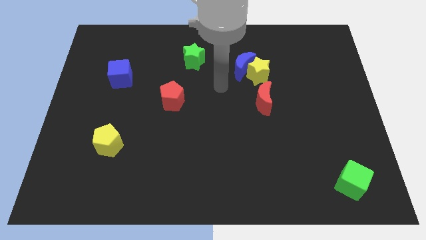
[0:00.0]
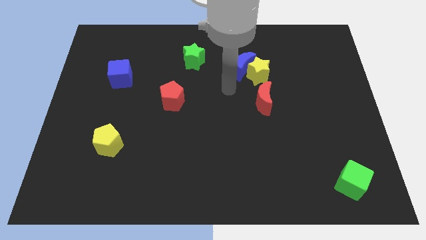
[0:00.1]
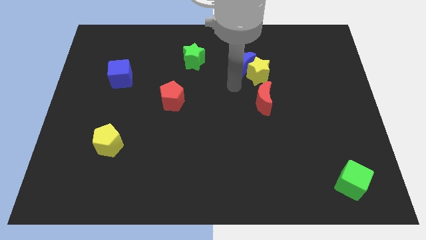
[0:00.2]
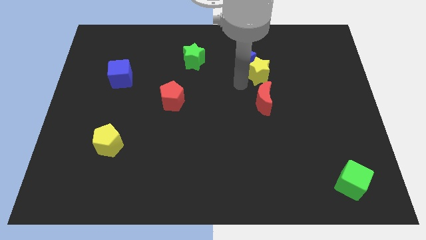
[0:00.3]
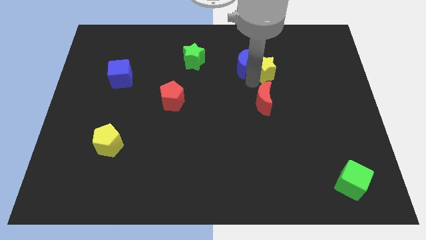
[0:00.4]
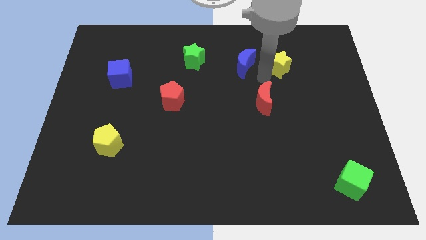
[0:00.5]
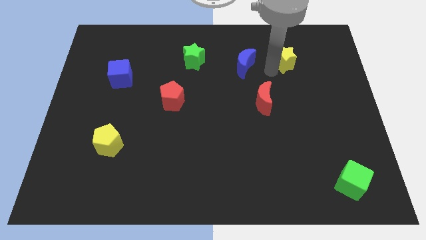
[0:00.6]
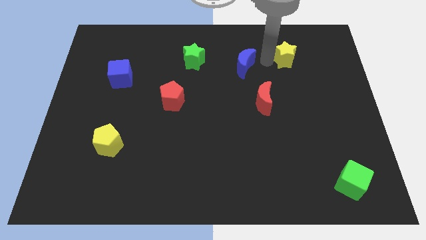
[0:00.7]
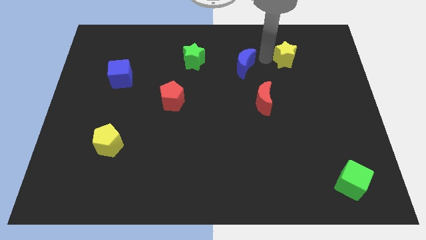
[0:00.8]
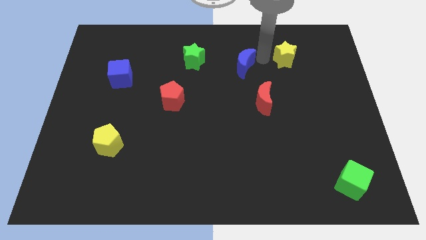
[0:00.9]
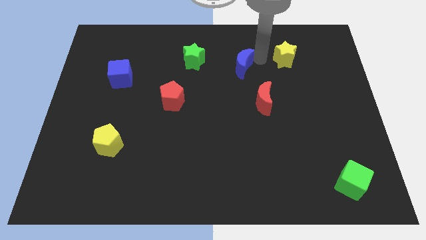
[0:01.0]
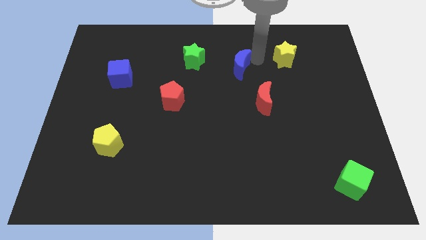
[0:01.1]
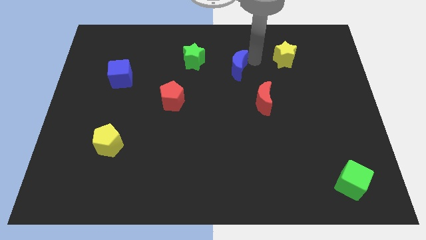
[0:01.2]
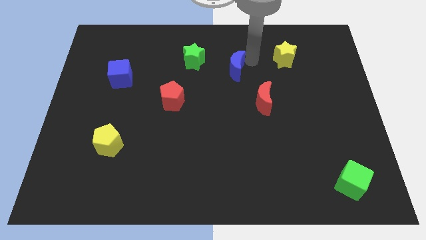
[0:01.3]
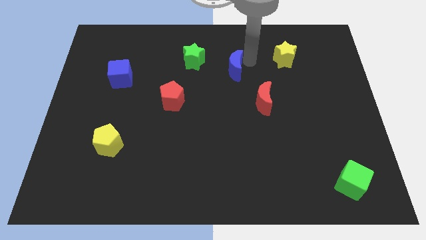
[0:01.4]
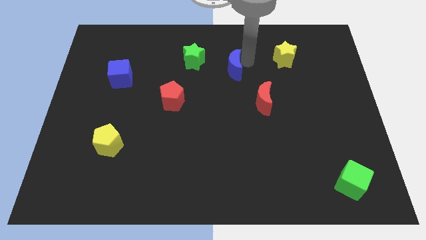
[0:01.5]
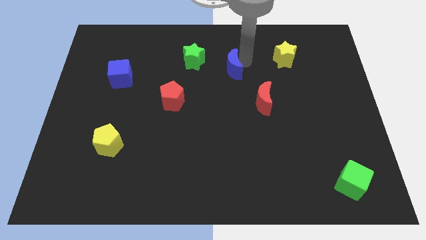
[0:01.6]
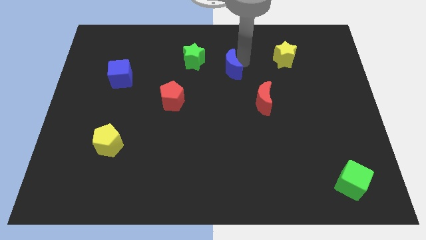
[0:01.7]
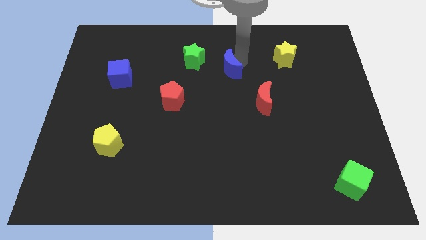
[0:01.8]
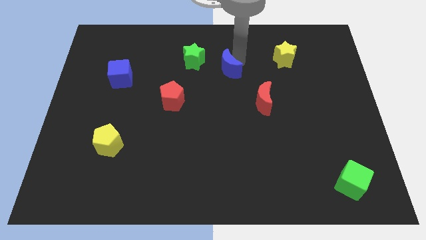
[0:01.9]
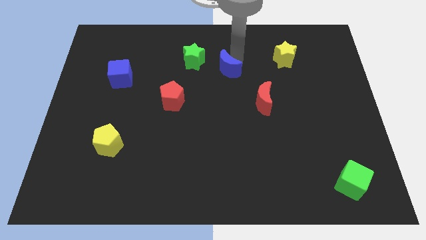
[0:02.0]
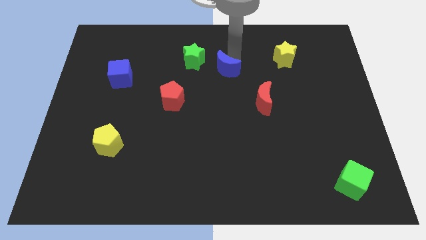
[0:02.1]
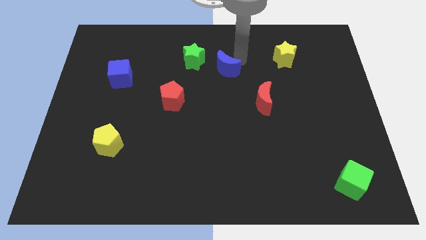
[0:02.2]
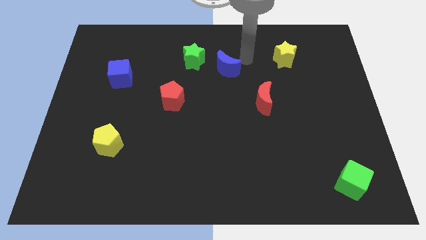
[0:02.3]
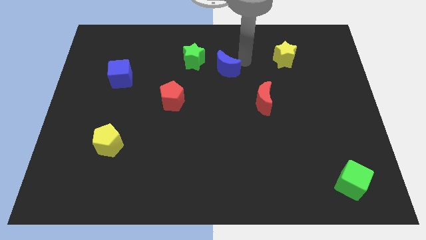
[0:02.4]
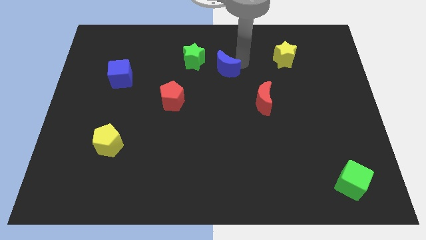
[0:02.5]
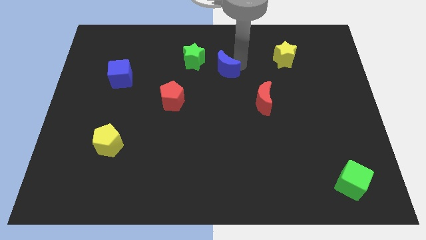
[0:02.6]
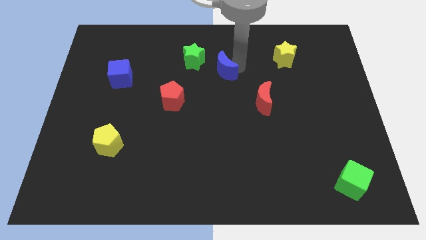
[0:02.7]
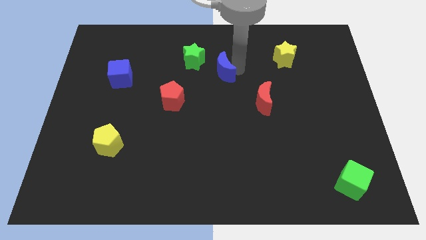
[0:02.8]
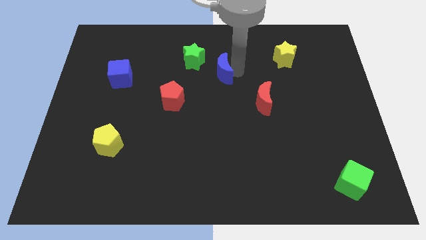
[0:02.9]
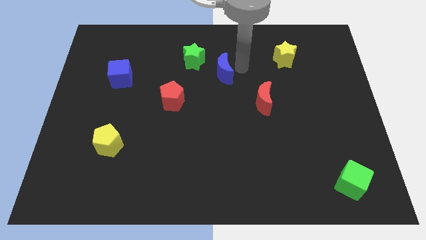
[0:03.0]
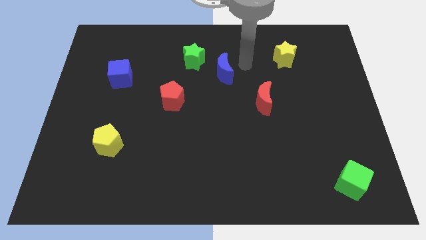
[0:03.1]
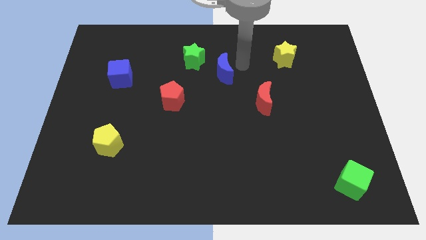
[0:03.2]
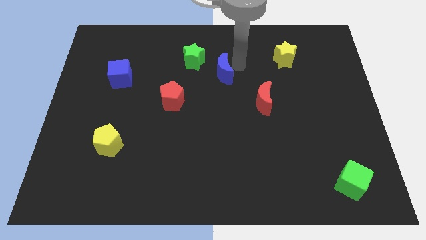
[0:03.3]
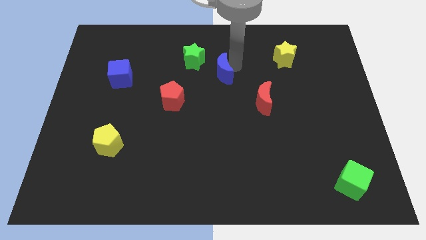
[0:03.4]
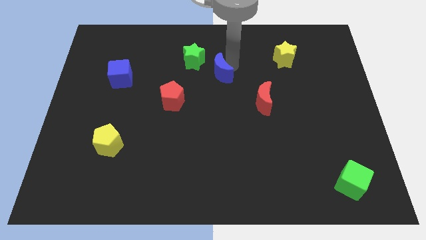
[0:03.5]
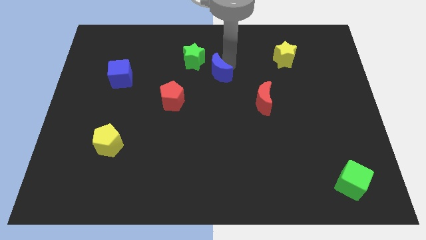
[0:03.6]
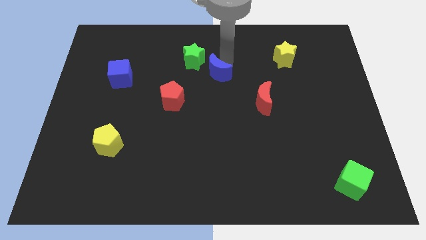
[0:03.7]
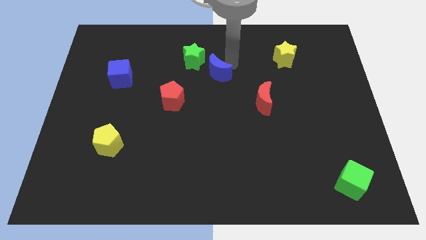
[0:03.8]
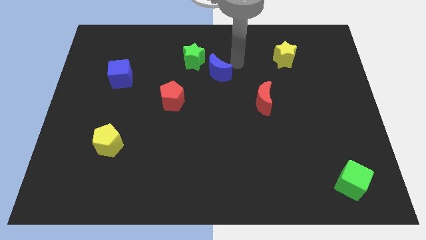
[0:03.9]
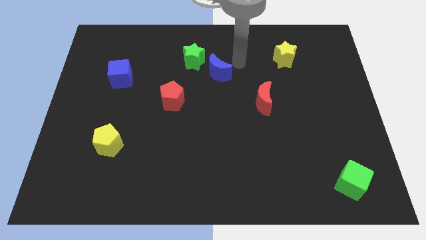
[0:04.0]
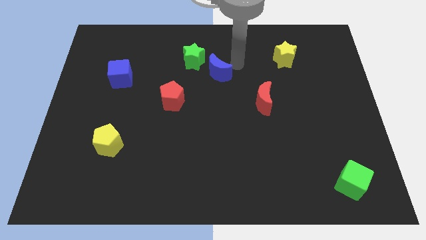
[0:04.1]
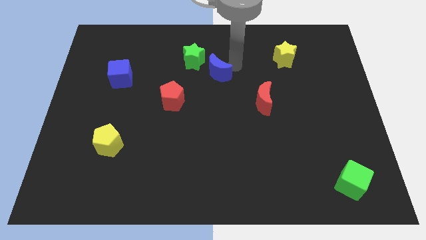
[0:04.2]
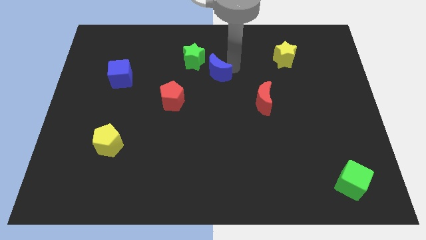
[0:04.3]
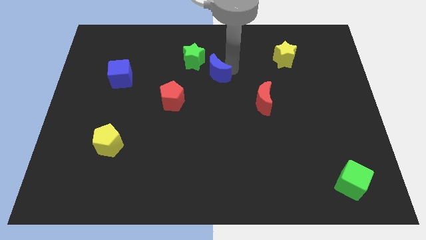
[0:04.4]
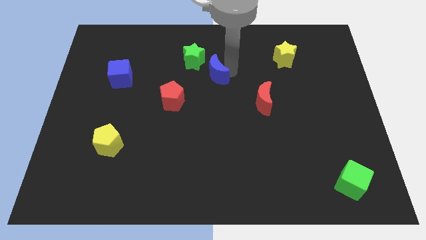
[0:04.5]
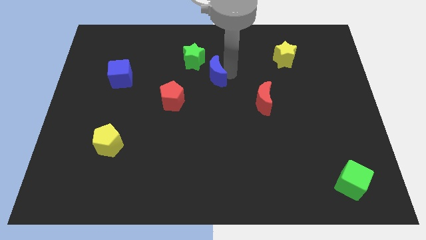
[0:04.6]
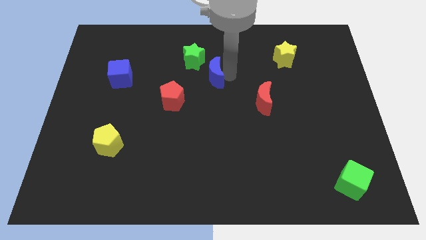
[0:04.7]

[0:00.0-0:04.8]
move the blue moon to the top right of the red pentagon

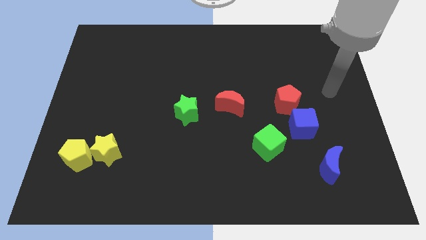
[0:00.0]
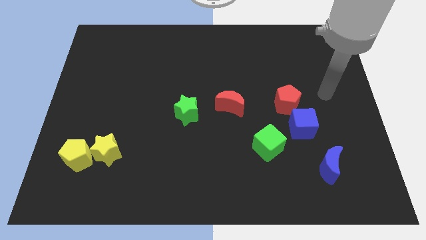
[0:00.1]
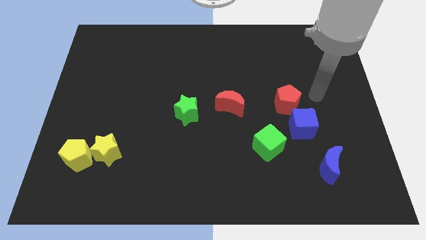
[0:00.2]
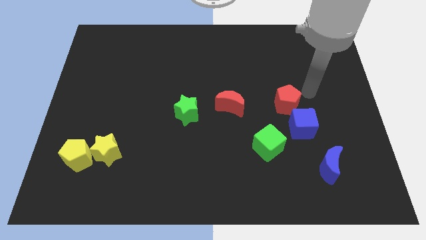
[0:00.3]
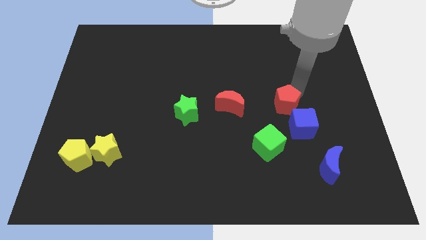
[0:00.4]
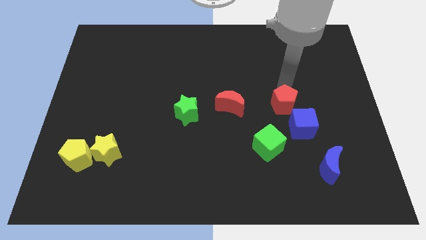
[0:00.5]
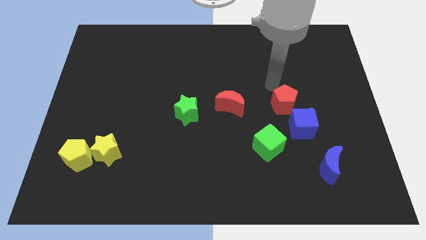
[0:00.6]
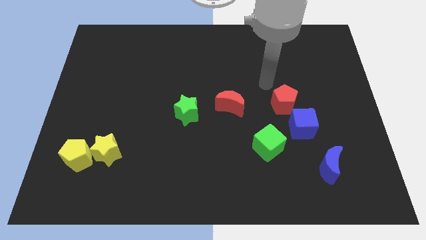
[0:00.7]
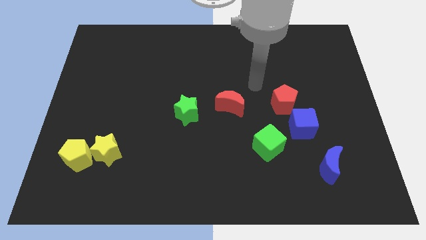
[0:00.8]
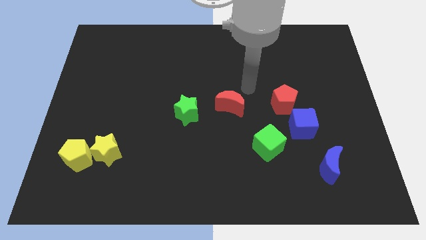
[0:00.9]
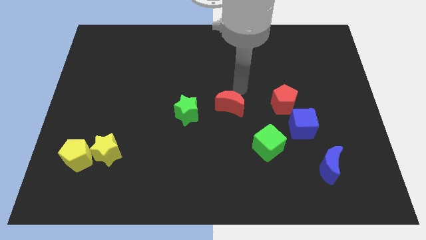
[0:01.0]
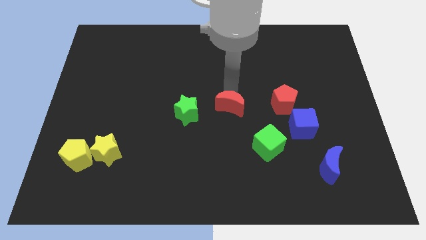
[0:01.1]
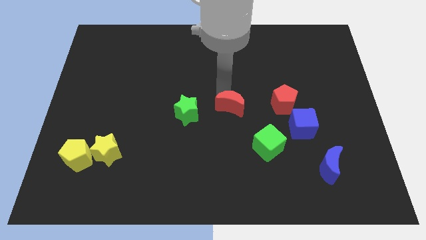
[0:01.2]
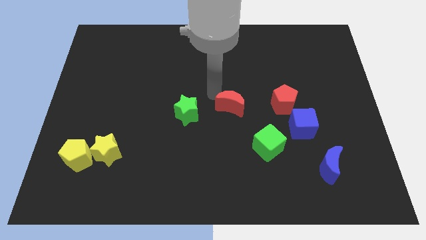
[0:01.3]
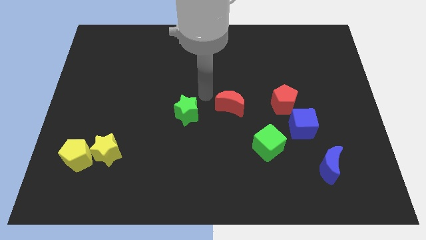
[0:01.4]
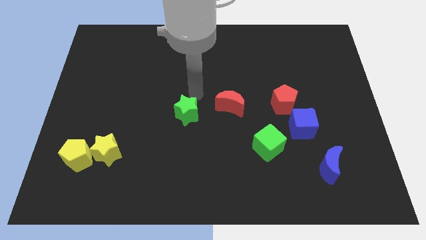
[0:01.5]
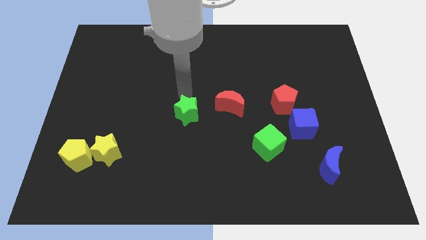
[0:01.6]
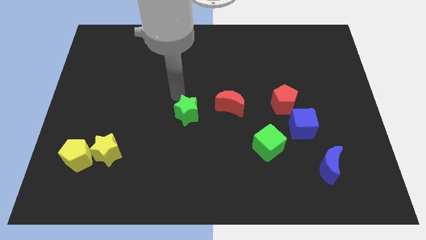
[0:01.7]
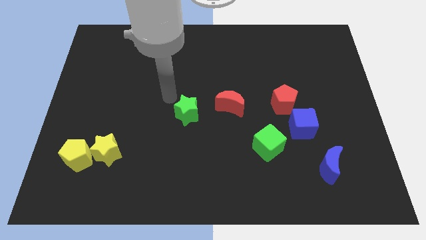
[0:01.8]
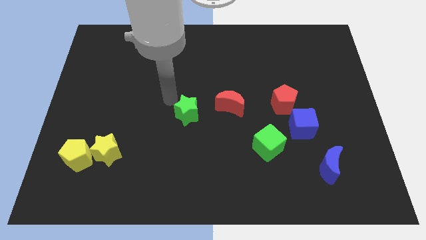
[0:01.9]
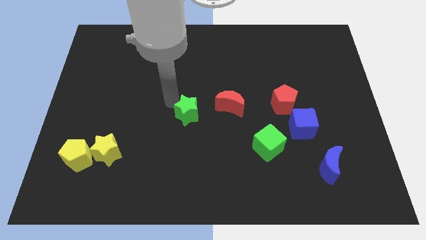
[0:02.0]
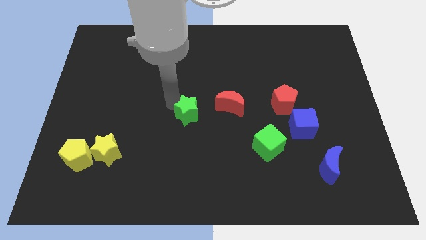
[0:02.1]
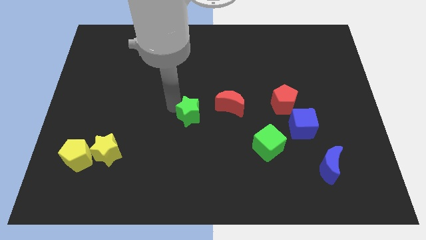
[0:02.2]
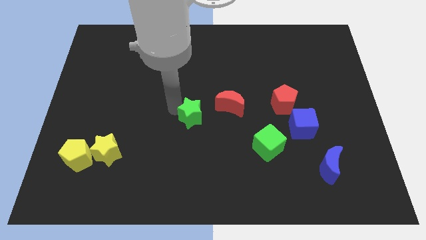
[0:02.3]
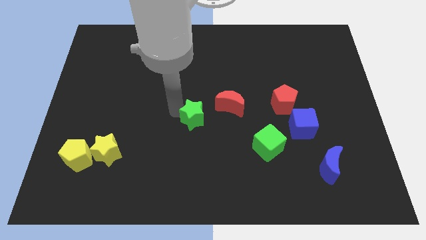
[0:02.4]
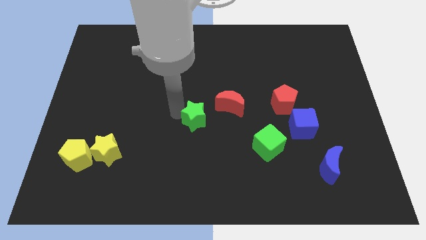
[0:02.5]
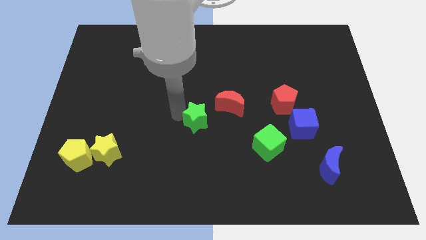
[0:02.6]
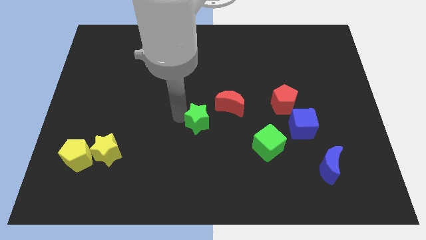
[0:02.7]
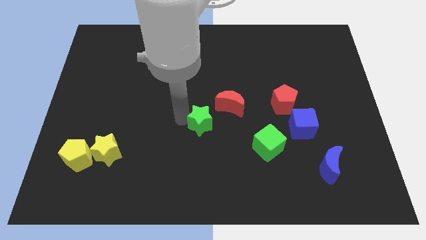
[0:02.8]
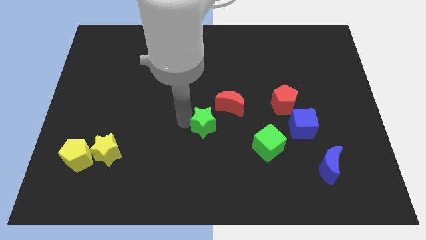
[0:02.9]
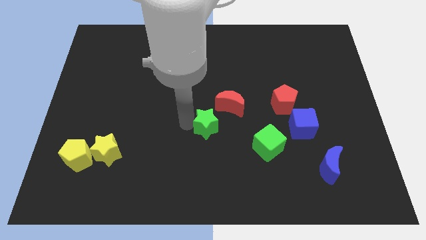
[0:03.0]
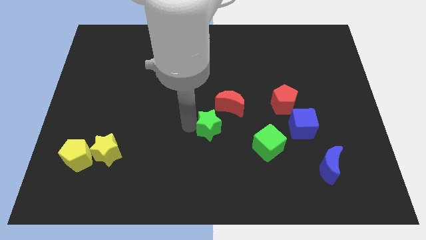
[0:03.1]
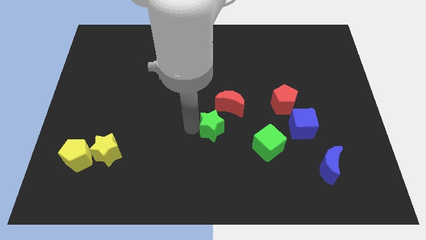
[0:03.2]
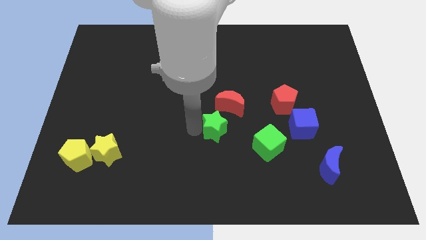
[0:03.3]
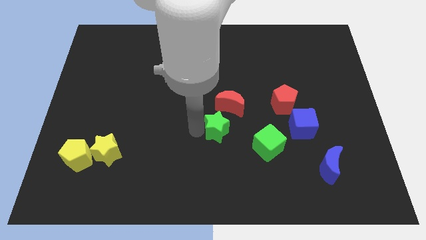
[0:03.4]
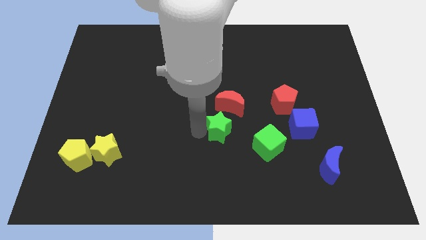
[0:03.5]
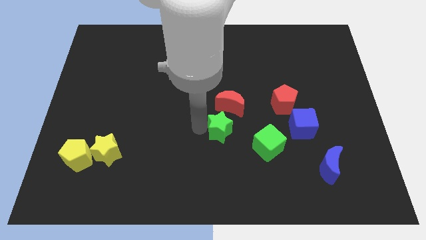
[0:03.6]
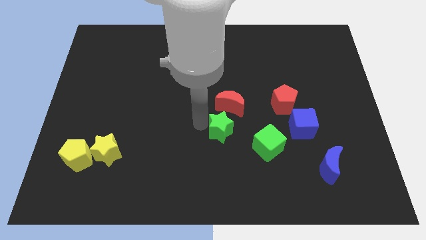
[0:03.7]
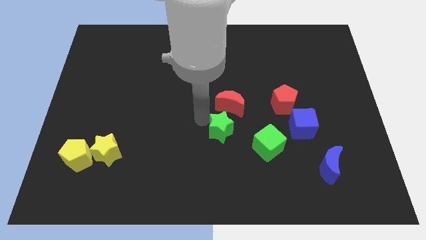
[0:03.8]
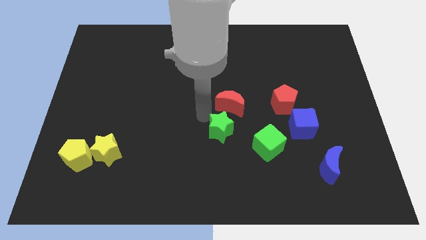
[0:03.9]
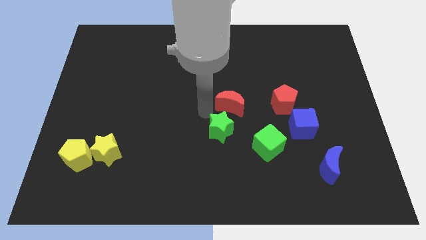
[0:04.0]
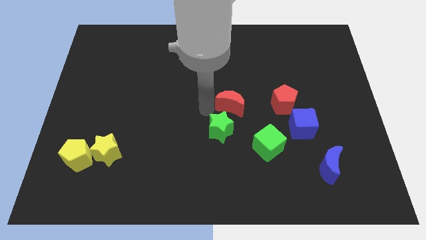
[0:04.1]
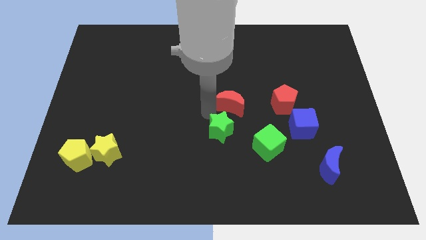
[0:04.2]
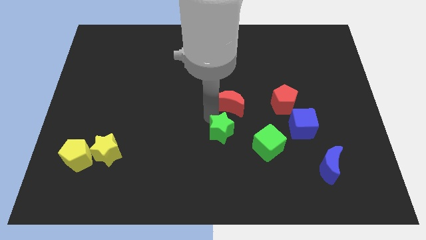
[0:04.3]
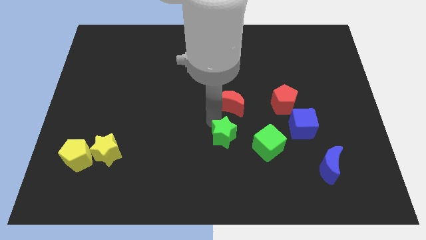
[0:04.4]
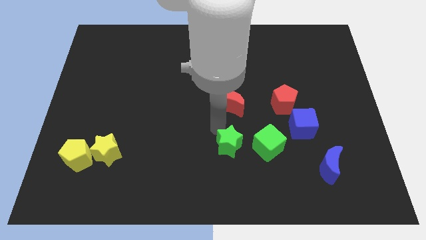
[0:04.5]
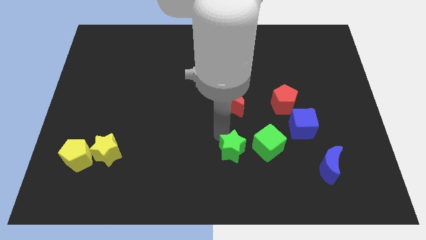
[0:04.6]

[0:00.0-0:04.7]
move the green star diagonally down and to the left of the green cube
